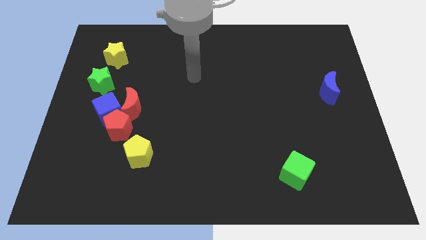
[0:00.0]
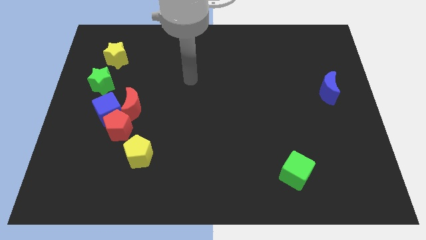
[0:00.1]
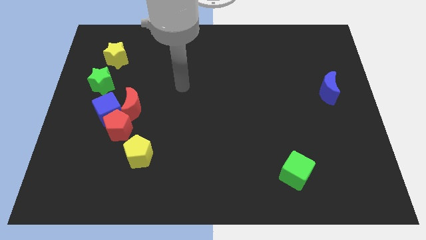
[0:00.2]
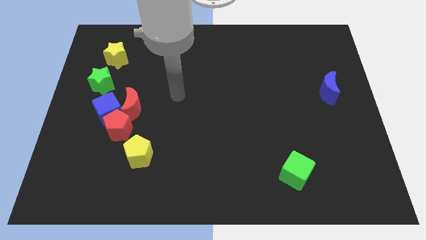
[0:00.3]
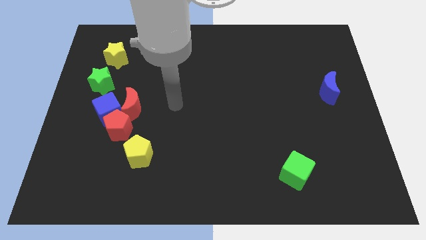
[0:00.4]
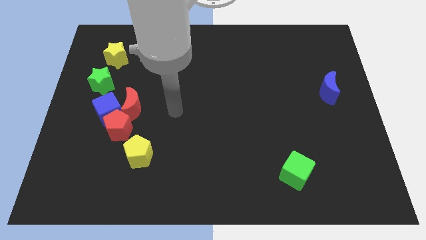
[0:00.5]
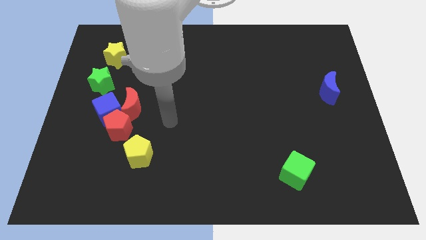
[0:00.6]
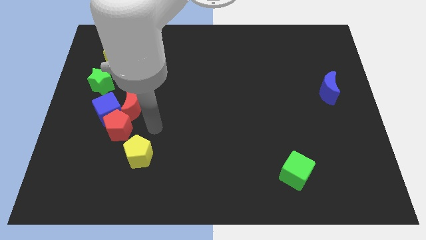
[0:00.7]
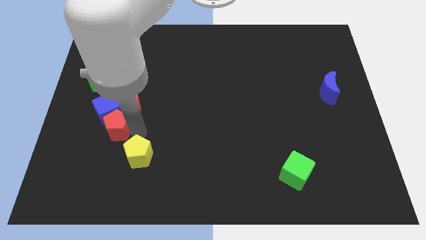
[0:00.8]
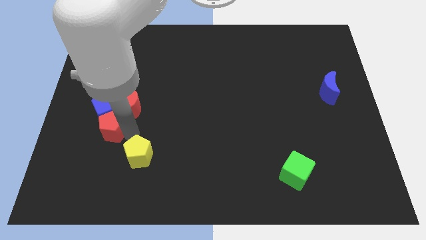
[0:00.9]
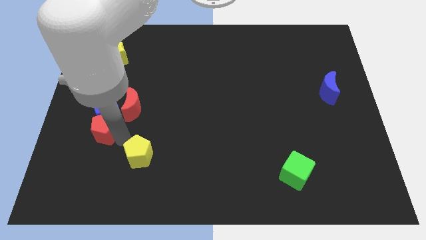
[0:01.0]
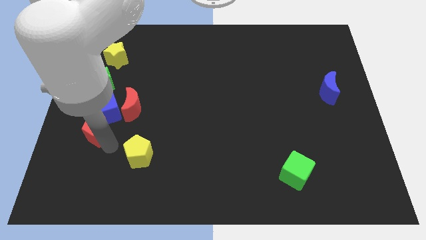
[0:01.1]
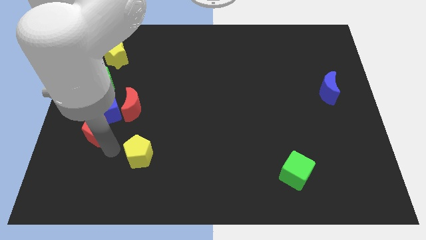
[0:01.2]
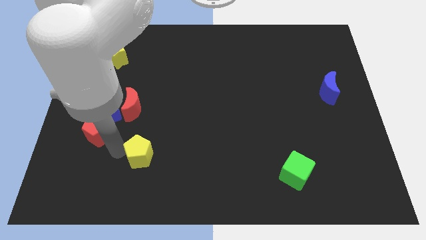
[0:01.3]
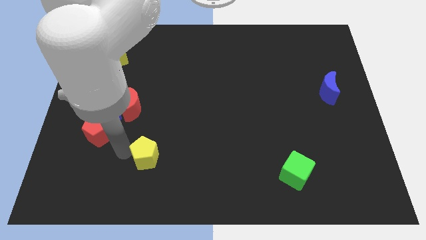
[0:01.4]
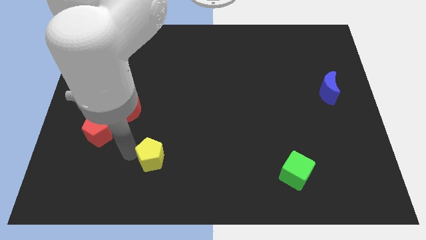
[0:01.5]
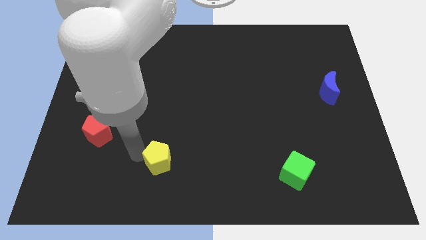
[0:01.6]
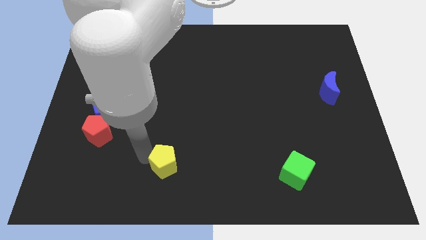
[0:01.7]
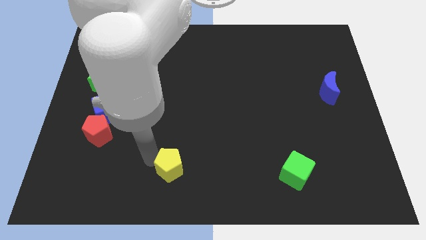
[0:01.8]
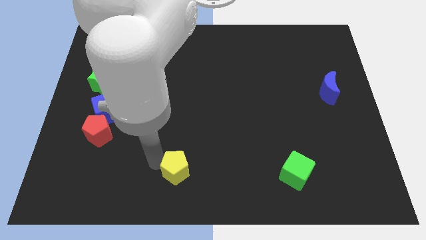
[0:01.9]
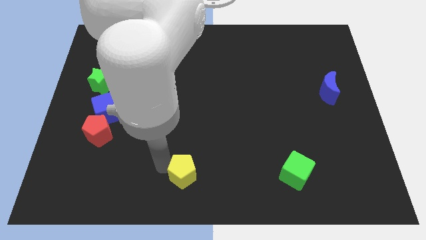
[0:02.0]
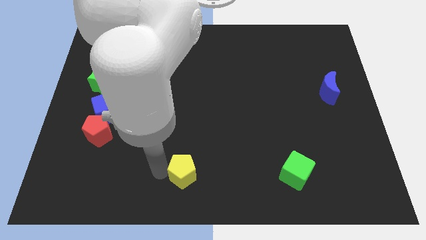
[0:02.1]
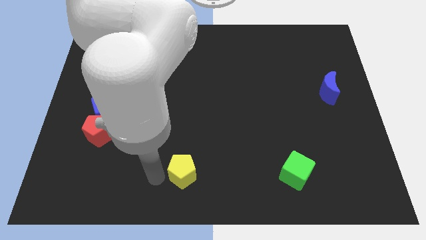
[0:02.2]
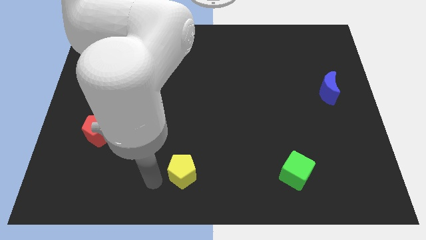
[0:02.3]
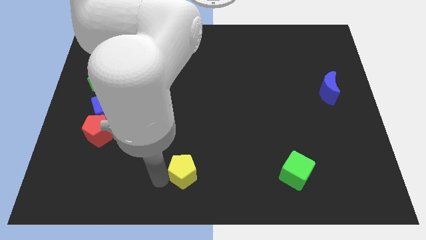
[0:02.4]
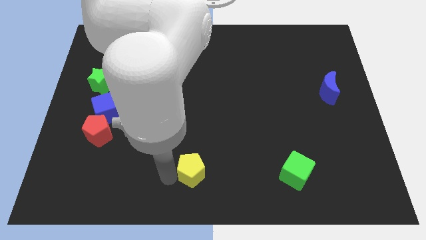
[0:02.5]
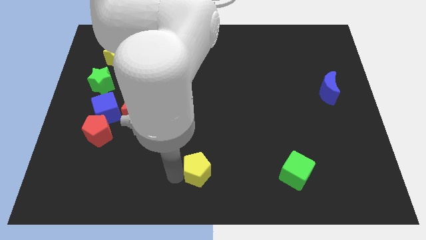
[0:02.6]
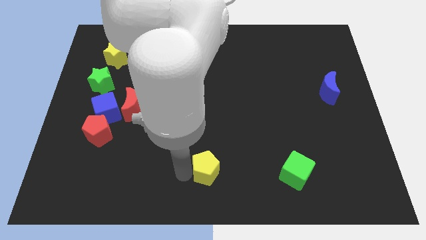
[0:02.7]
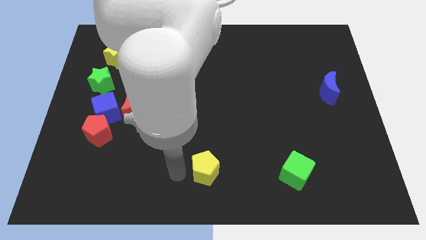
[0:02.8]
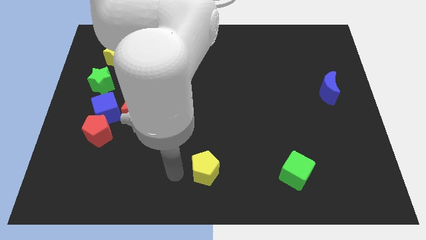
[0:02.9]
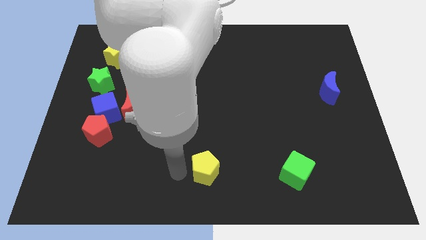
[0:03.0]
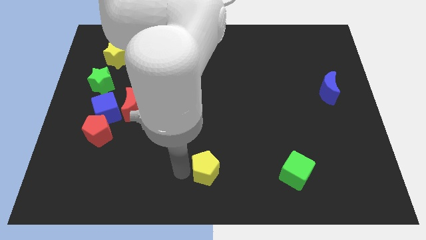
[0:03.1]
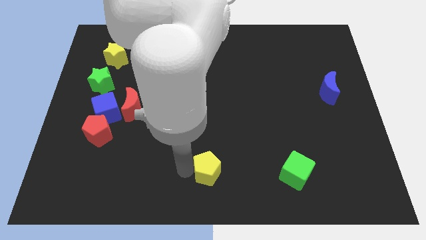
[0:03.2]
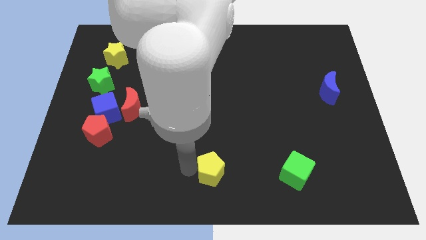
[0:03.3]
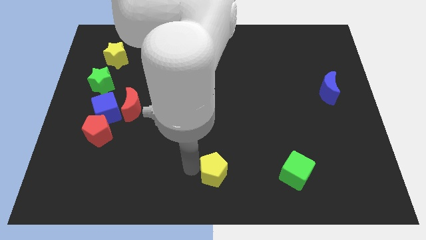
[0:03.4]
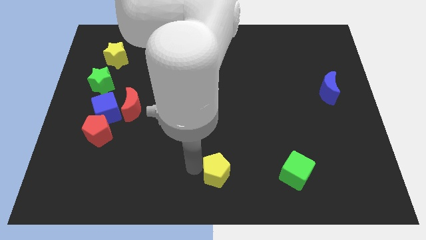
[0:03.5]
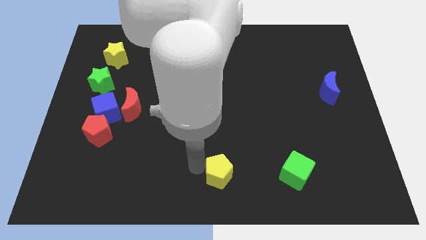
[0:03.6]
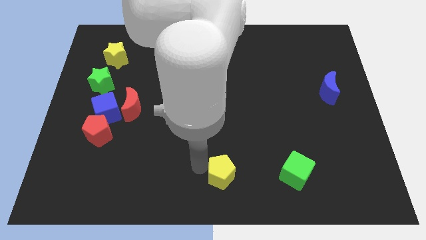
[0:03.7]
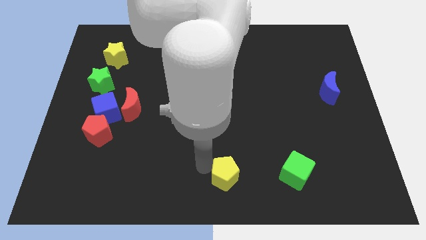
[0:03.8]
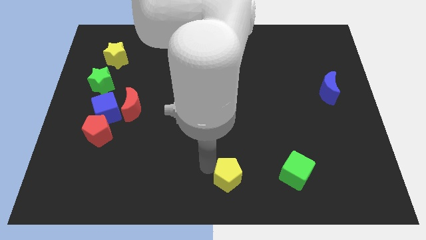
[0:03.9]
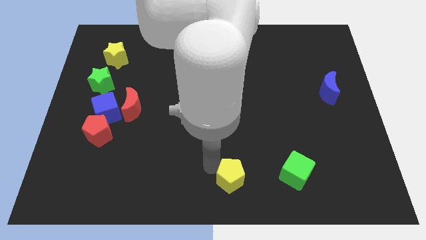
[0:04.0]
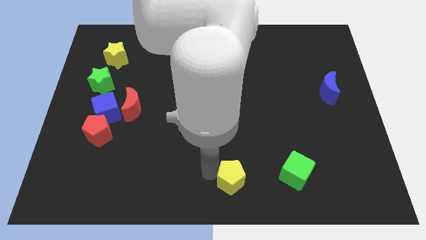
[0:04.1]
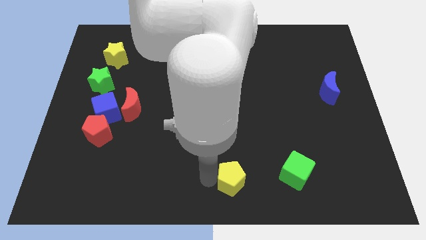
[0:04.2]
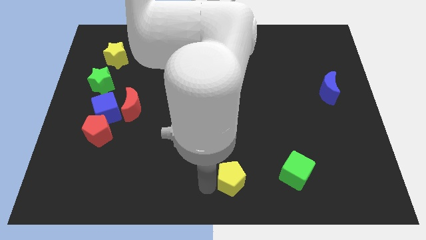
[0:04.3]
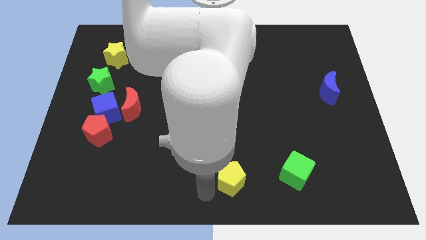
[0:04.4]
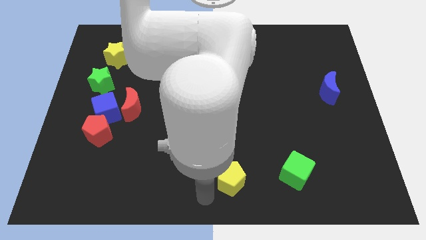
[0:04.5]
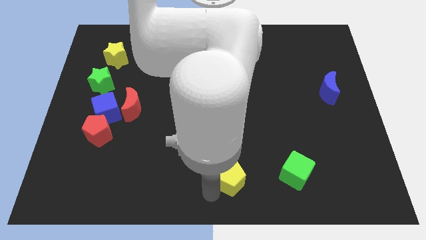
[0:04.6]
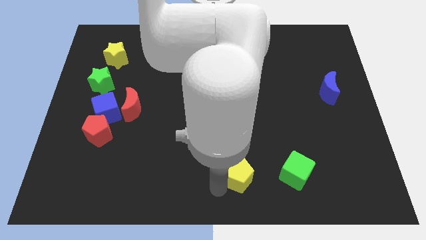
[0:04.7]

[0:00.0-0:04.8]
slide the yellow pentagon to the right

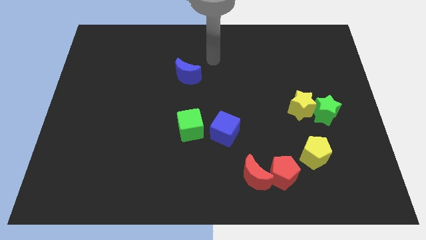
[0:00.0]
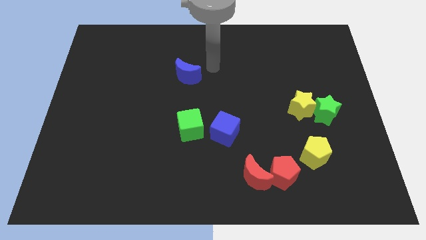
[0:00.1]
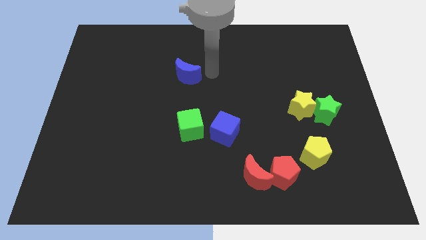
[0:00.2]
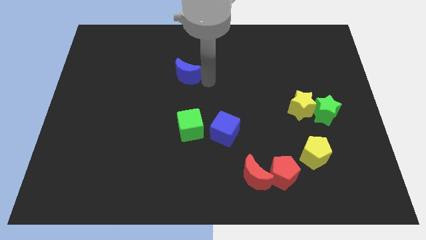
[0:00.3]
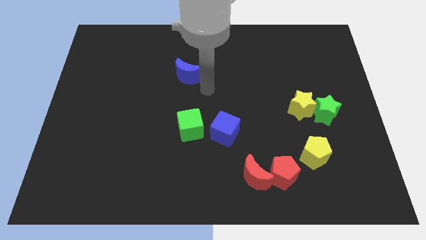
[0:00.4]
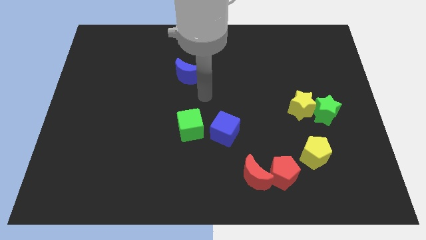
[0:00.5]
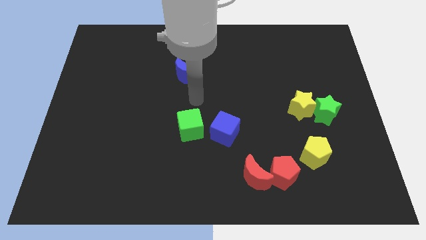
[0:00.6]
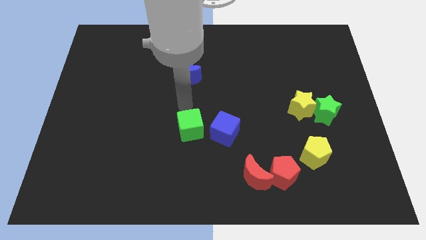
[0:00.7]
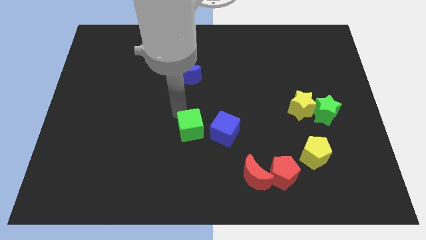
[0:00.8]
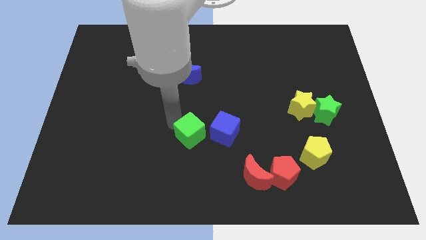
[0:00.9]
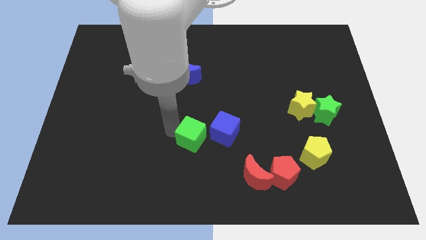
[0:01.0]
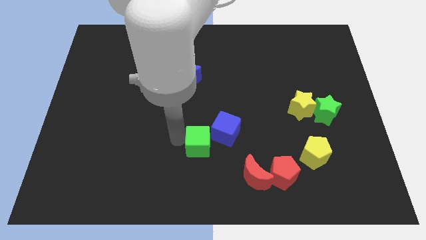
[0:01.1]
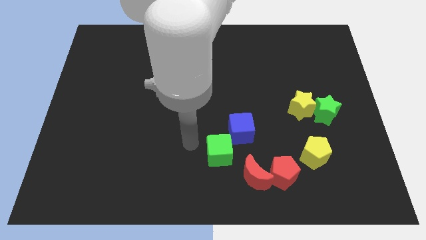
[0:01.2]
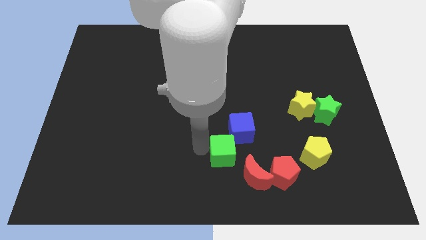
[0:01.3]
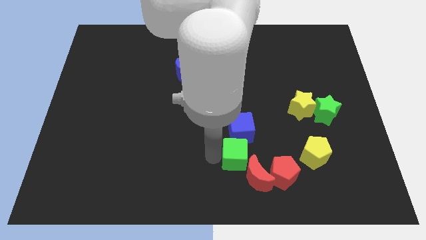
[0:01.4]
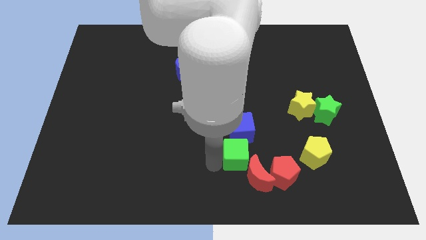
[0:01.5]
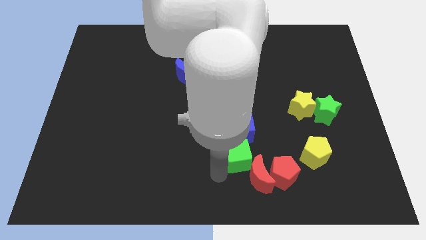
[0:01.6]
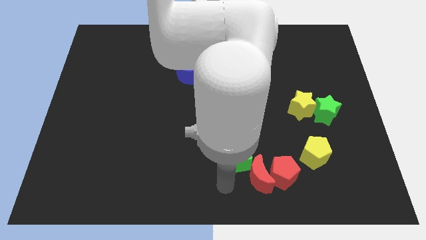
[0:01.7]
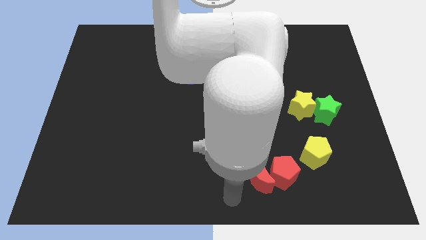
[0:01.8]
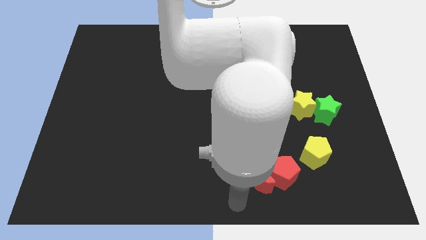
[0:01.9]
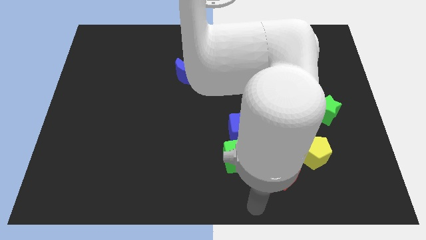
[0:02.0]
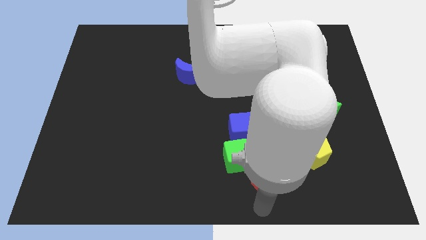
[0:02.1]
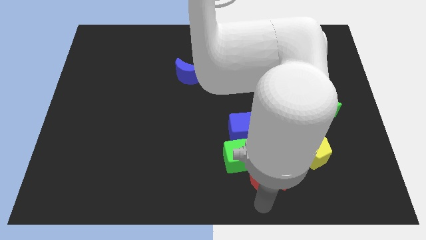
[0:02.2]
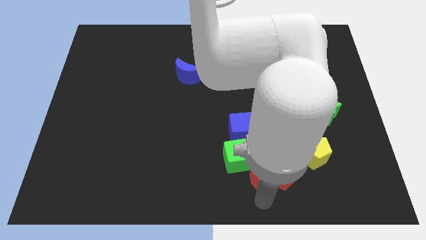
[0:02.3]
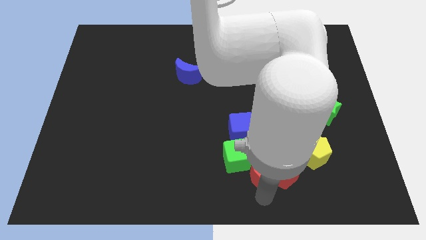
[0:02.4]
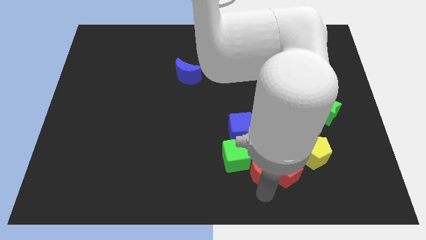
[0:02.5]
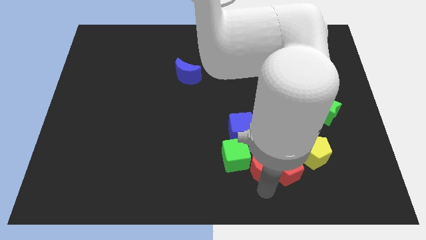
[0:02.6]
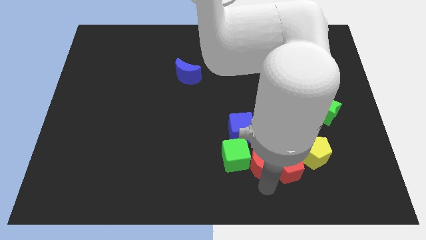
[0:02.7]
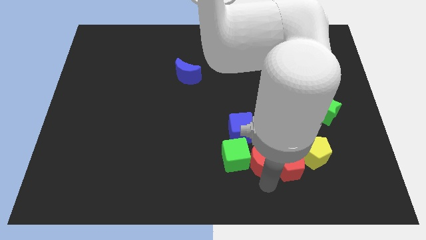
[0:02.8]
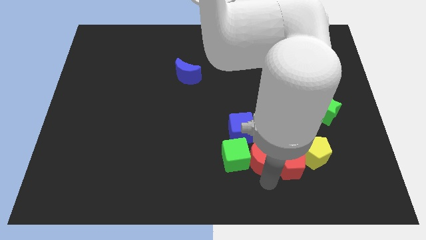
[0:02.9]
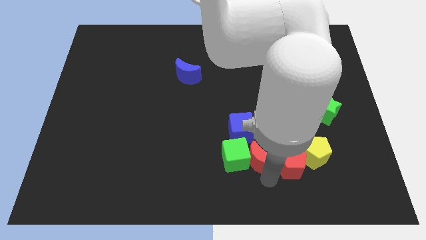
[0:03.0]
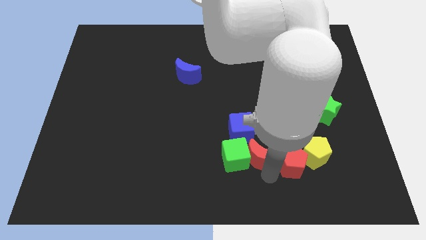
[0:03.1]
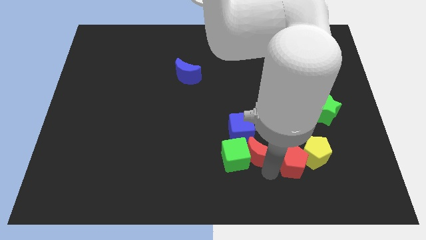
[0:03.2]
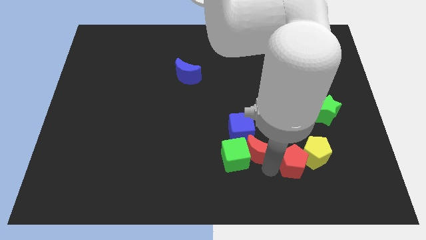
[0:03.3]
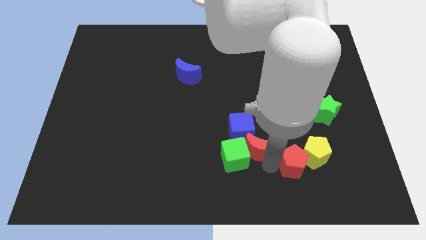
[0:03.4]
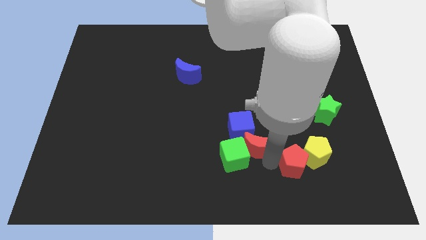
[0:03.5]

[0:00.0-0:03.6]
move the red moon up slightly
